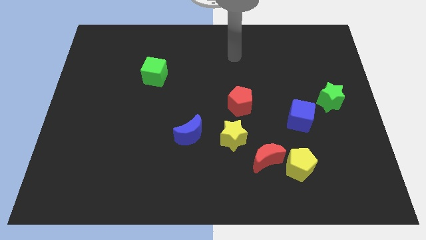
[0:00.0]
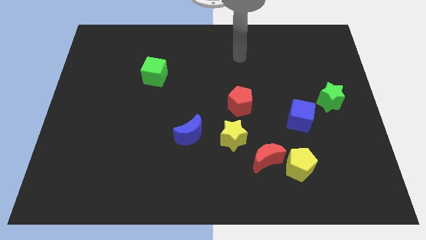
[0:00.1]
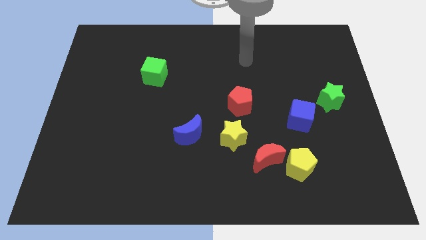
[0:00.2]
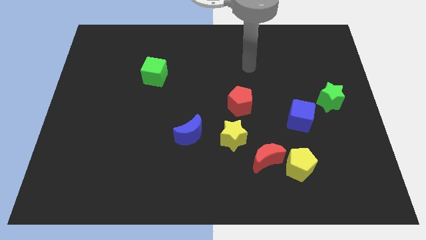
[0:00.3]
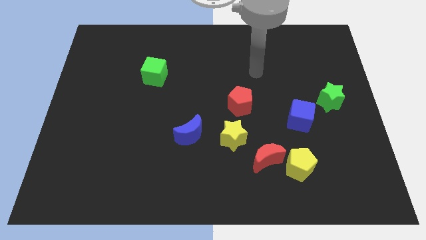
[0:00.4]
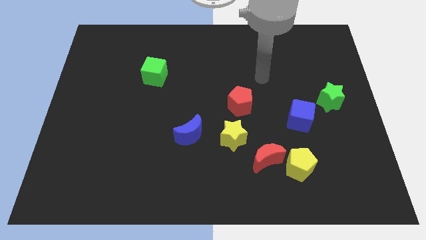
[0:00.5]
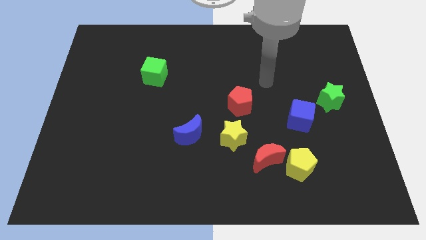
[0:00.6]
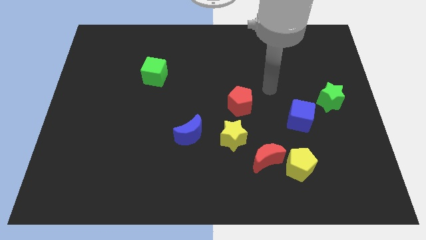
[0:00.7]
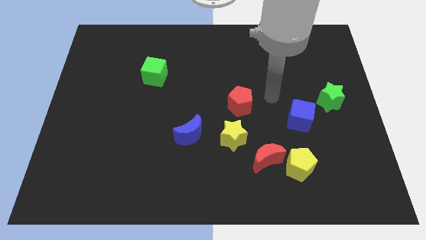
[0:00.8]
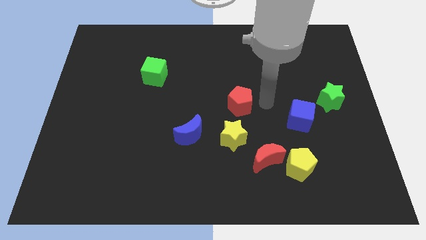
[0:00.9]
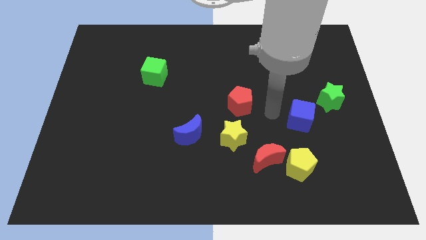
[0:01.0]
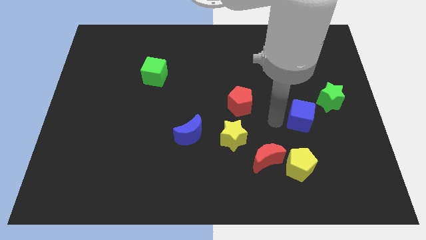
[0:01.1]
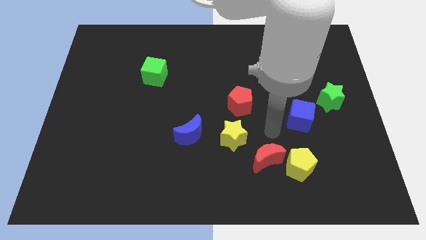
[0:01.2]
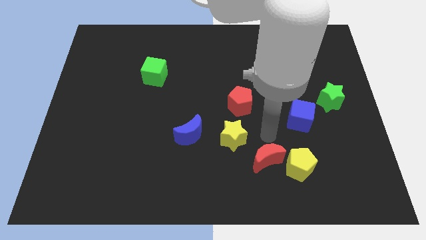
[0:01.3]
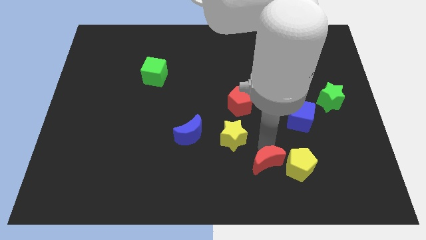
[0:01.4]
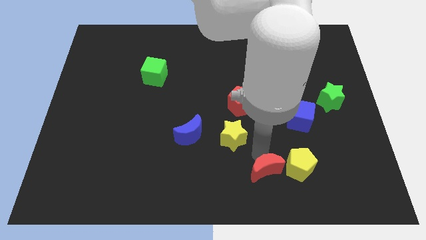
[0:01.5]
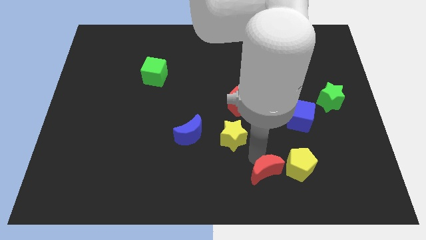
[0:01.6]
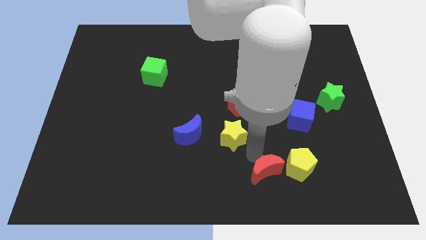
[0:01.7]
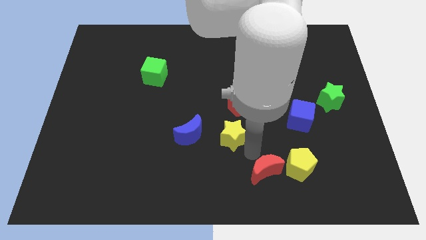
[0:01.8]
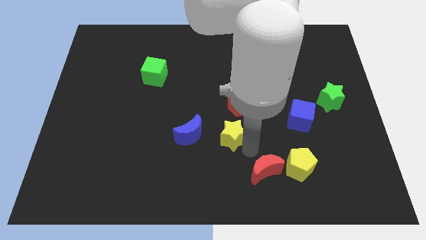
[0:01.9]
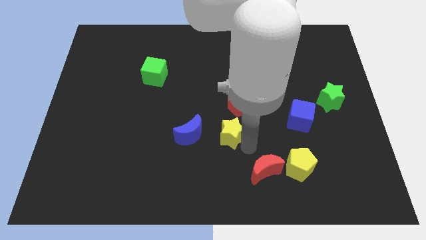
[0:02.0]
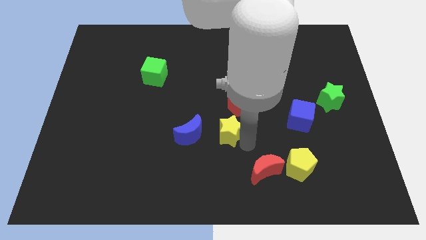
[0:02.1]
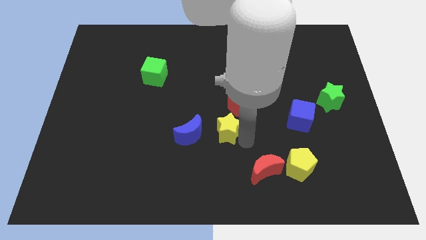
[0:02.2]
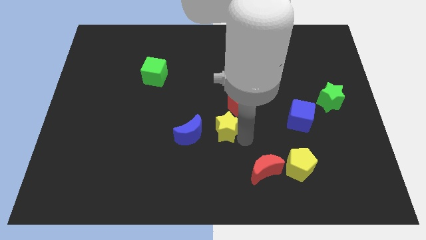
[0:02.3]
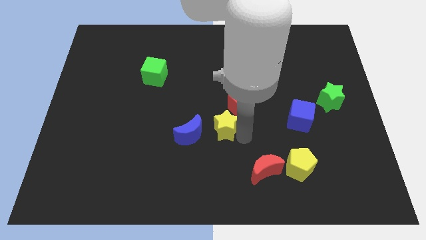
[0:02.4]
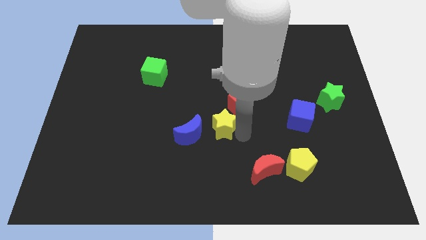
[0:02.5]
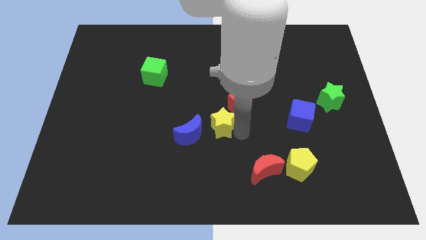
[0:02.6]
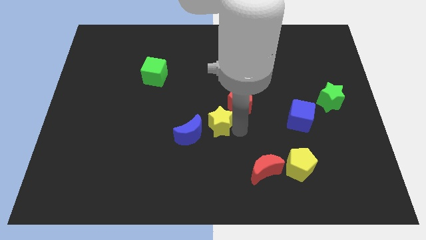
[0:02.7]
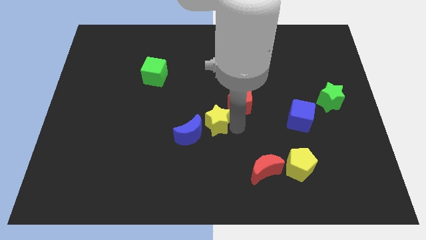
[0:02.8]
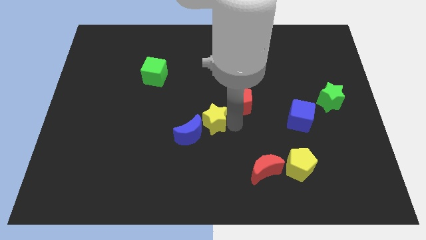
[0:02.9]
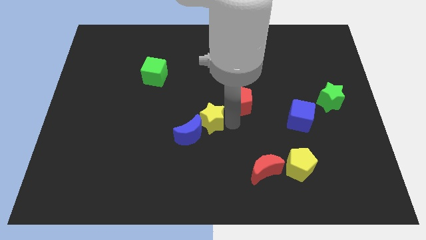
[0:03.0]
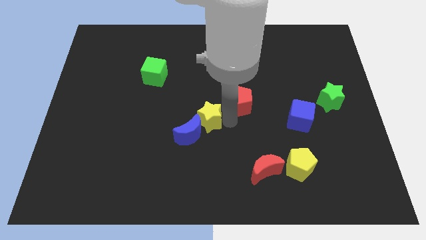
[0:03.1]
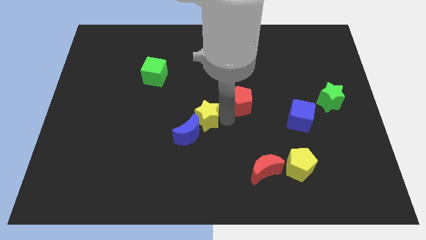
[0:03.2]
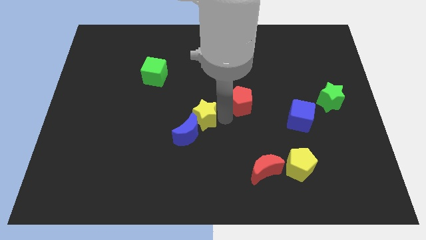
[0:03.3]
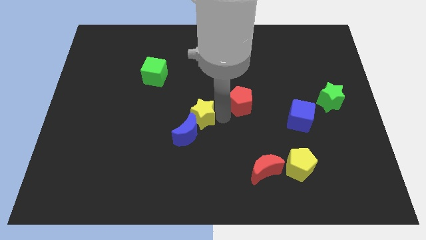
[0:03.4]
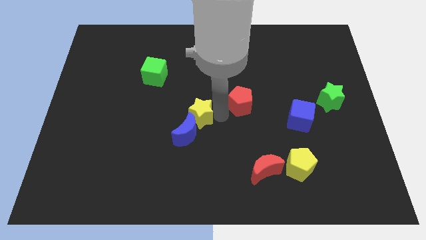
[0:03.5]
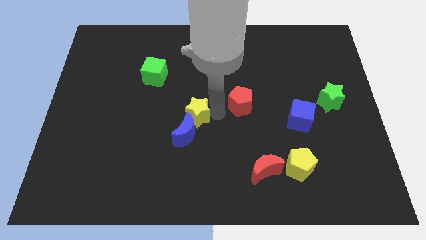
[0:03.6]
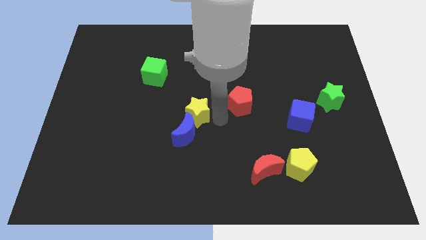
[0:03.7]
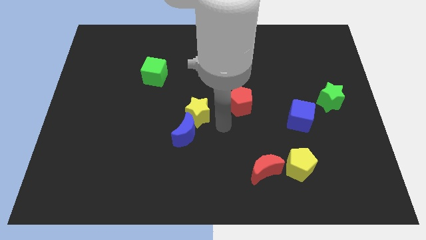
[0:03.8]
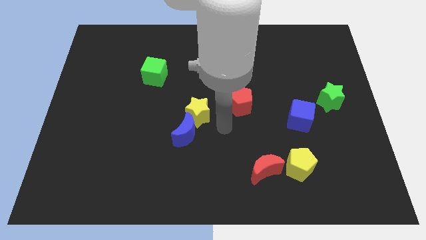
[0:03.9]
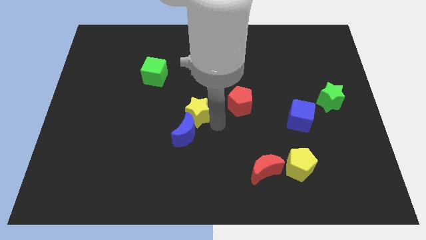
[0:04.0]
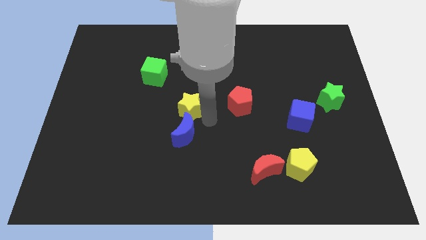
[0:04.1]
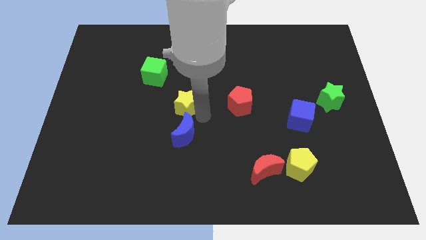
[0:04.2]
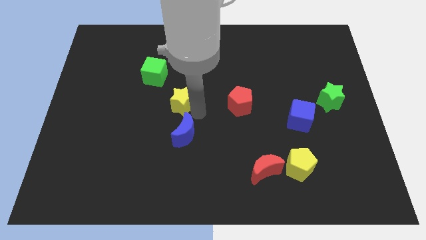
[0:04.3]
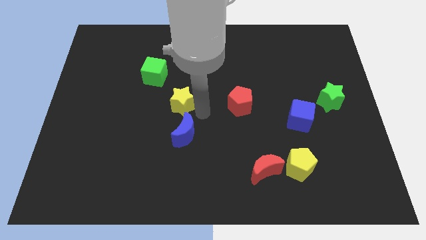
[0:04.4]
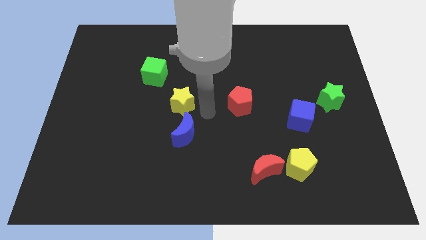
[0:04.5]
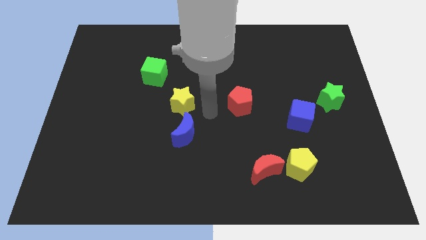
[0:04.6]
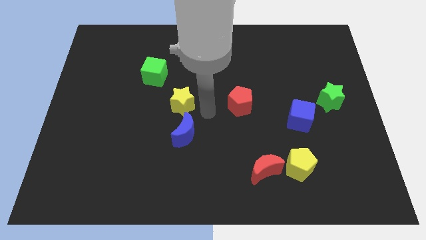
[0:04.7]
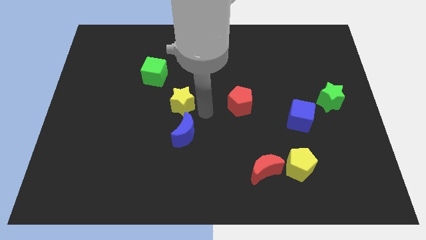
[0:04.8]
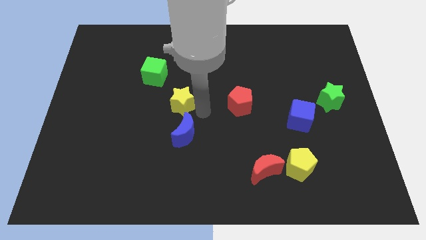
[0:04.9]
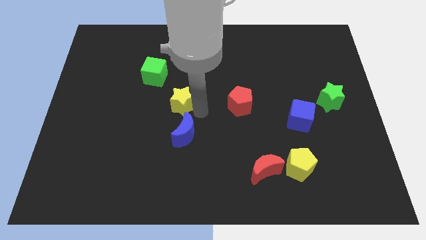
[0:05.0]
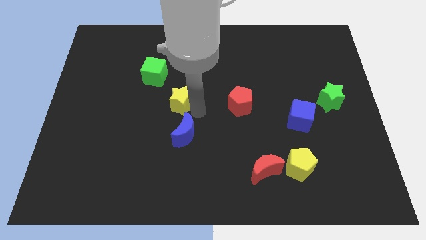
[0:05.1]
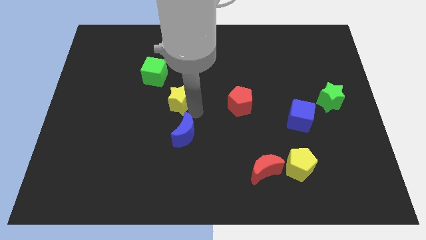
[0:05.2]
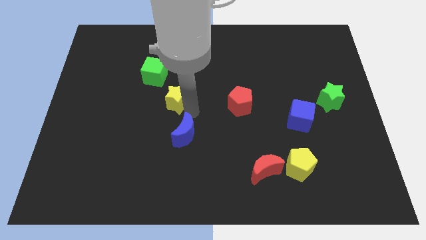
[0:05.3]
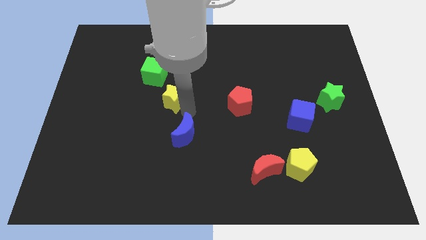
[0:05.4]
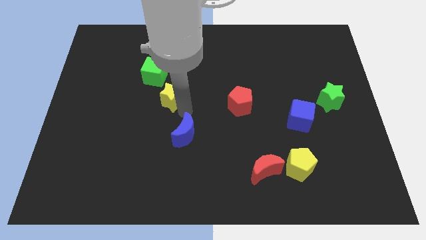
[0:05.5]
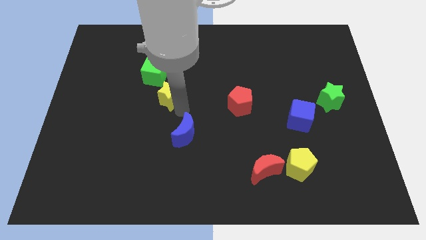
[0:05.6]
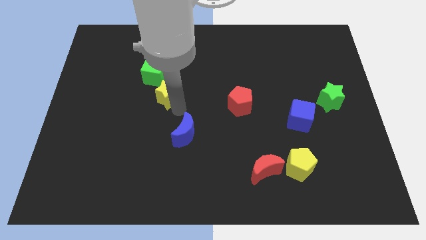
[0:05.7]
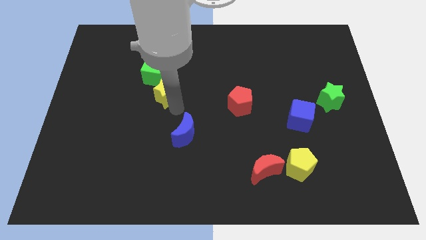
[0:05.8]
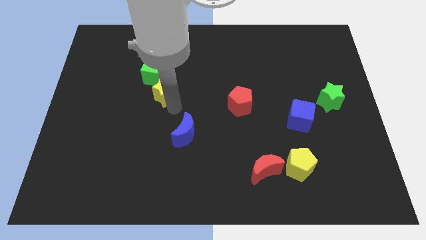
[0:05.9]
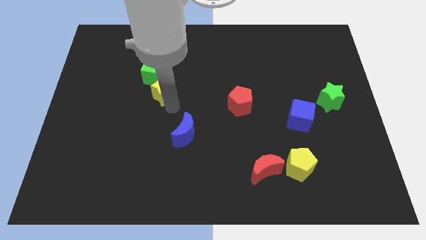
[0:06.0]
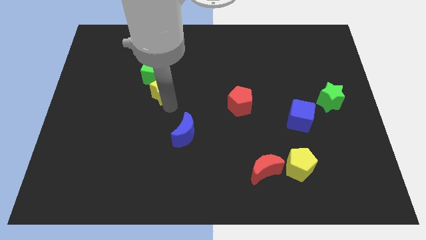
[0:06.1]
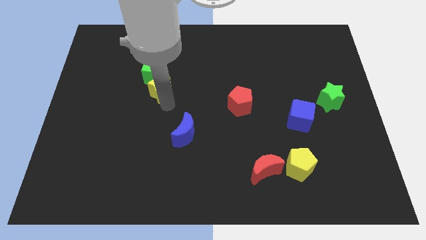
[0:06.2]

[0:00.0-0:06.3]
slide the yellow star towards the green cube

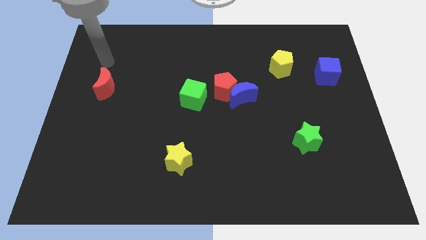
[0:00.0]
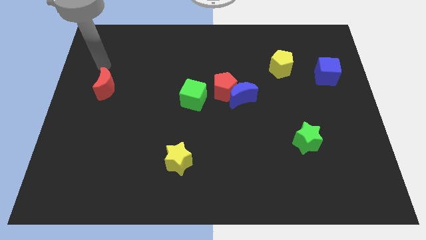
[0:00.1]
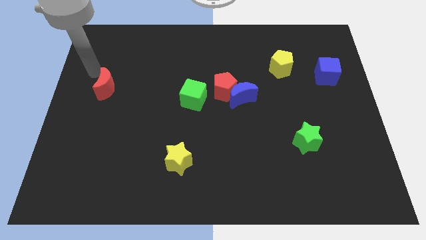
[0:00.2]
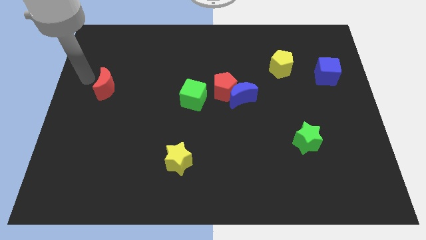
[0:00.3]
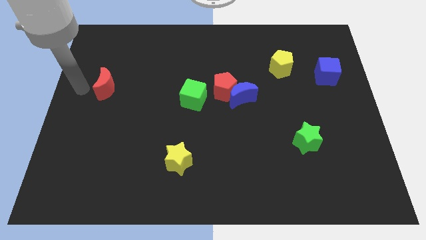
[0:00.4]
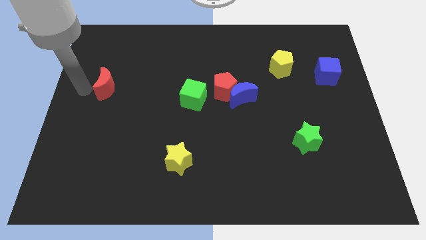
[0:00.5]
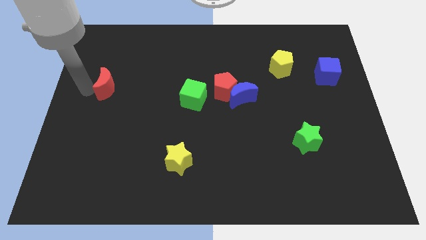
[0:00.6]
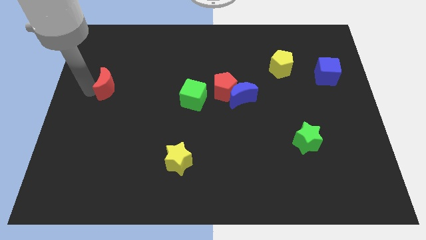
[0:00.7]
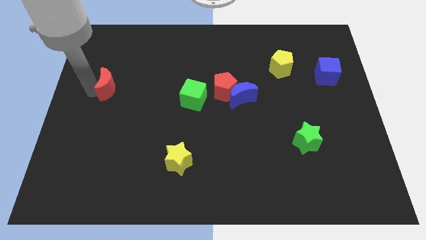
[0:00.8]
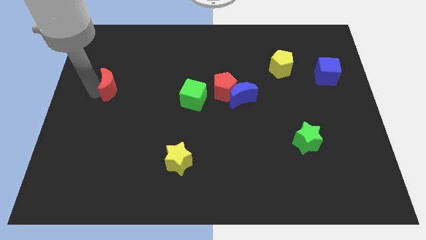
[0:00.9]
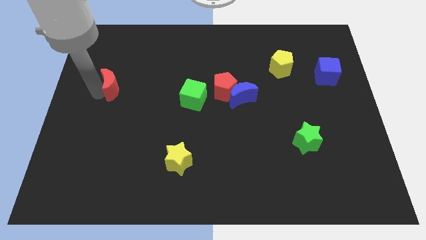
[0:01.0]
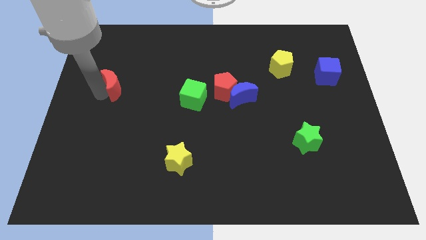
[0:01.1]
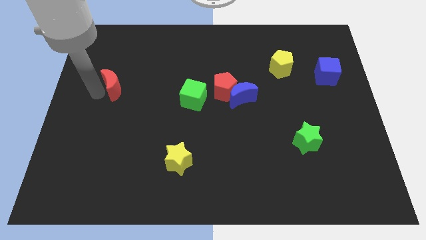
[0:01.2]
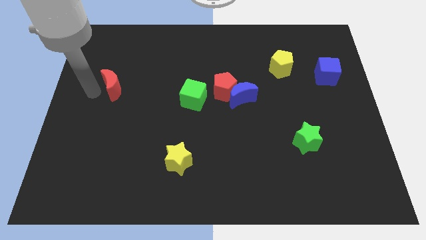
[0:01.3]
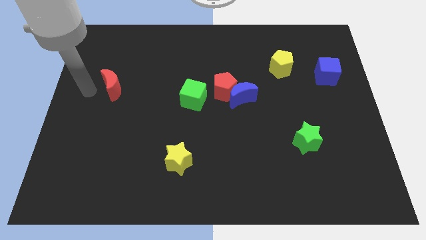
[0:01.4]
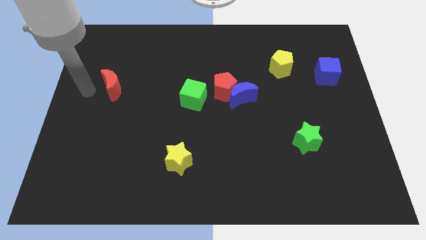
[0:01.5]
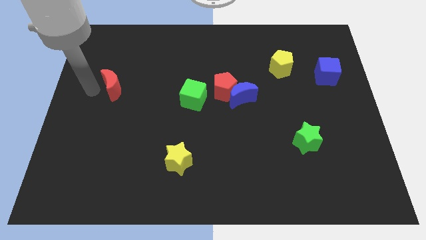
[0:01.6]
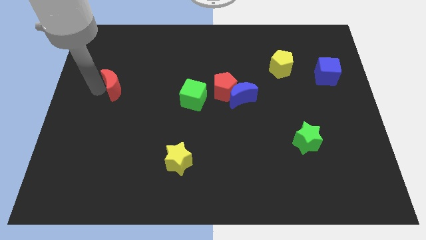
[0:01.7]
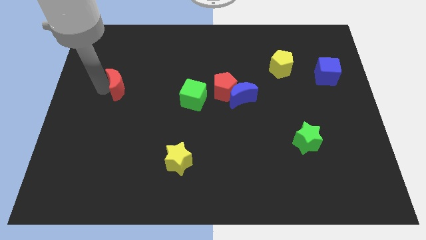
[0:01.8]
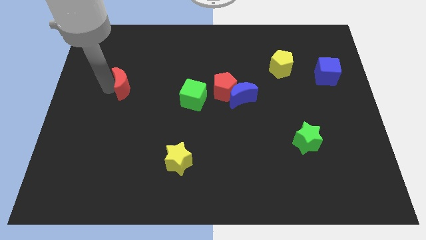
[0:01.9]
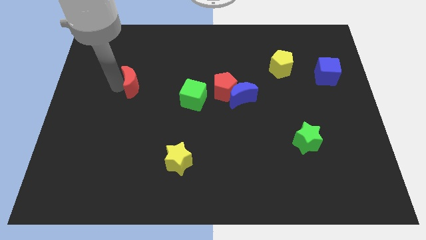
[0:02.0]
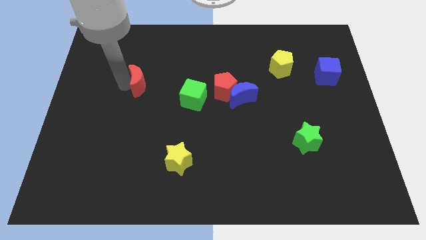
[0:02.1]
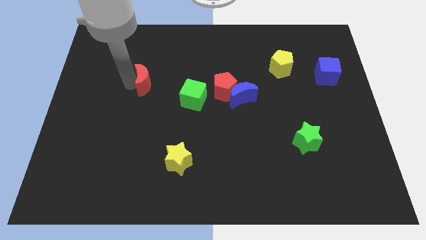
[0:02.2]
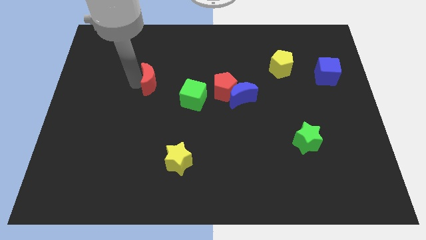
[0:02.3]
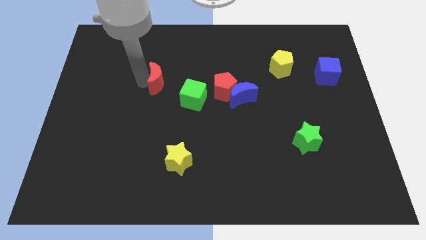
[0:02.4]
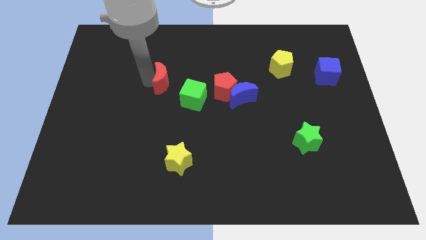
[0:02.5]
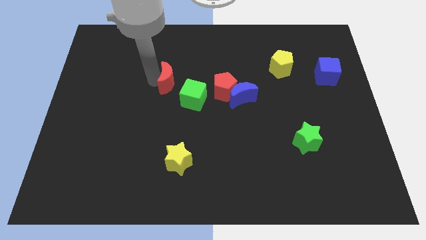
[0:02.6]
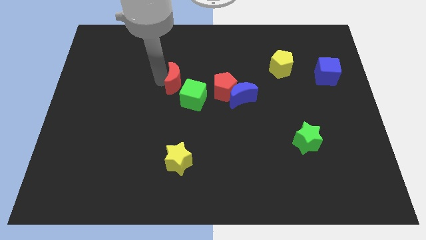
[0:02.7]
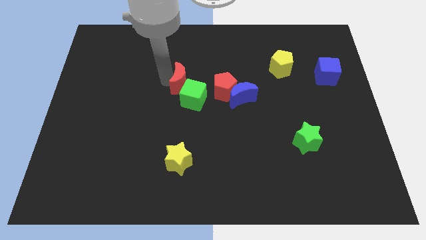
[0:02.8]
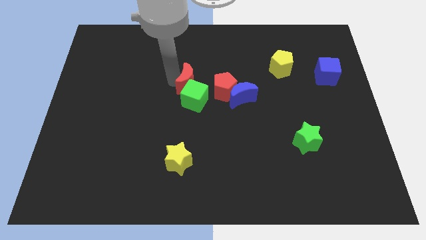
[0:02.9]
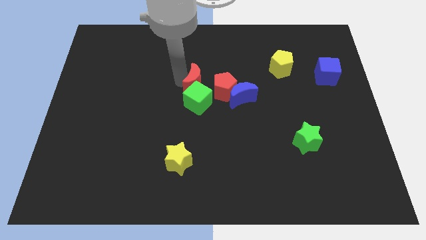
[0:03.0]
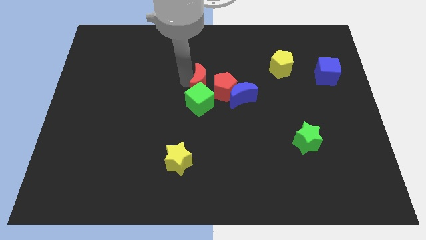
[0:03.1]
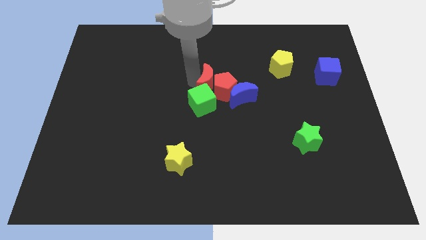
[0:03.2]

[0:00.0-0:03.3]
move the red moon next to the red pentagon
